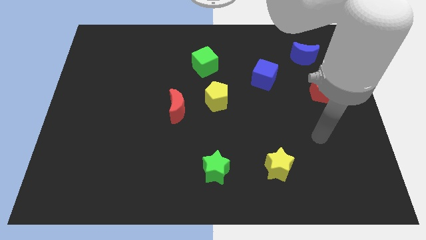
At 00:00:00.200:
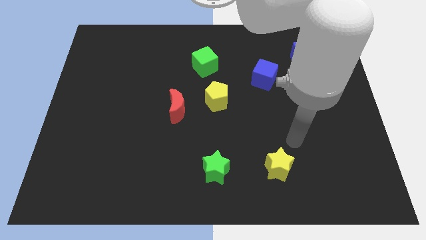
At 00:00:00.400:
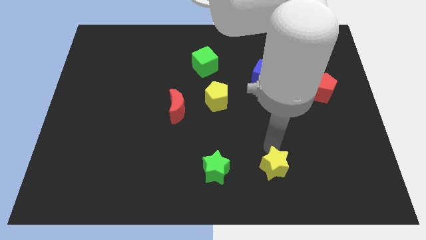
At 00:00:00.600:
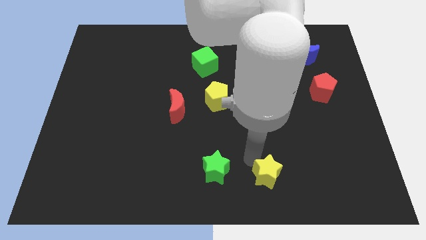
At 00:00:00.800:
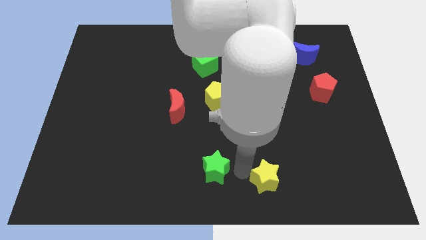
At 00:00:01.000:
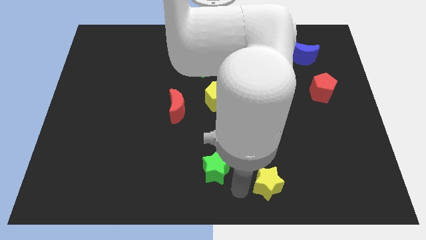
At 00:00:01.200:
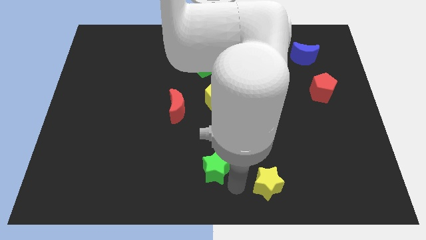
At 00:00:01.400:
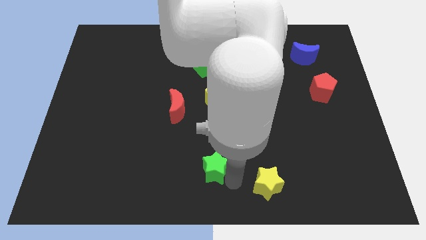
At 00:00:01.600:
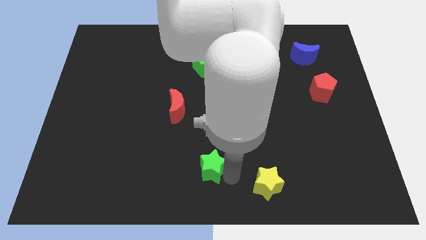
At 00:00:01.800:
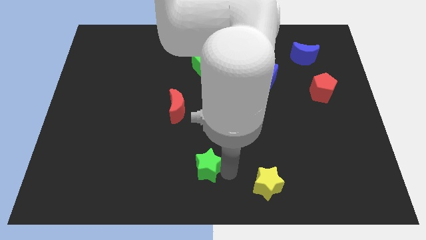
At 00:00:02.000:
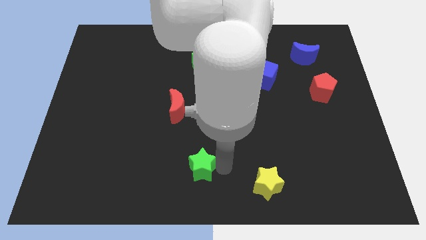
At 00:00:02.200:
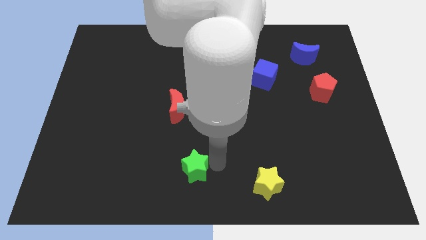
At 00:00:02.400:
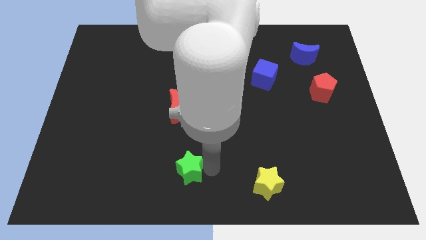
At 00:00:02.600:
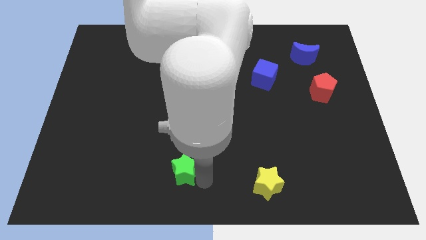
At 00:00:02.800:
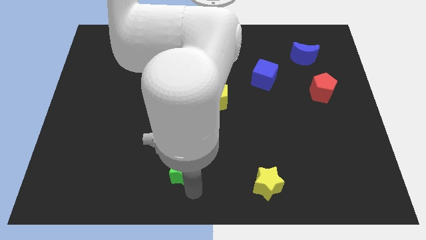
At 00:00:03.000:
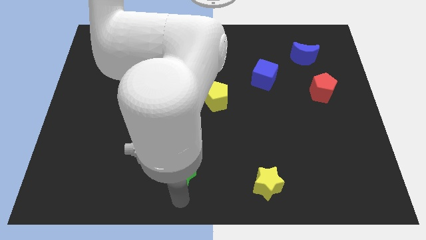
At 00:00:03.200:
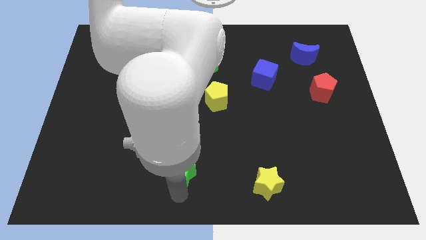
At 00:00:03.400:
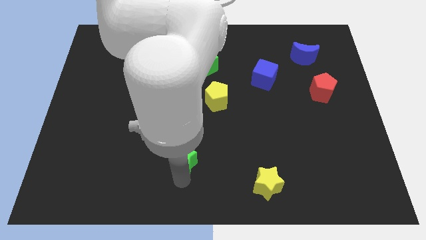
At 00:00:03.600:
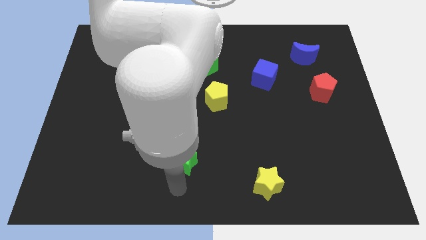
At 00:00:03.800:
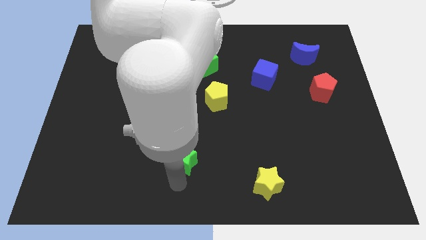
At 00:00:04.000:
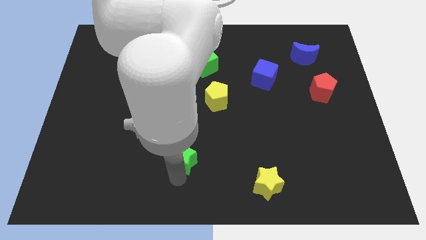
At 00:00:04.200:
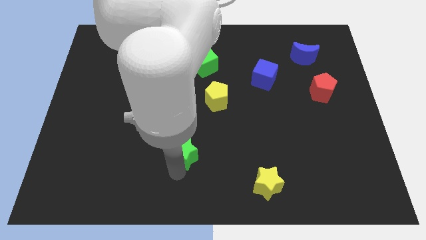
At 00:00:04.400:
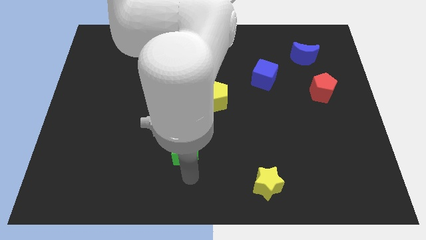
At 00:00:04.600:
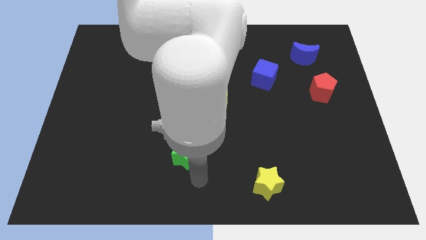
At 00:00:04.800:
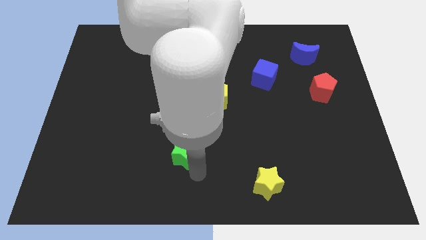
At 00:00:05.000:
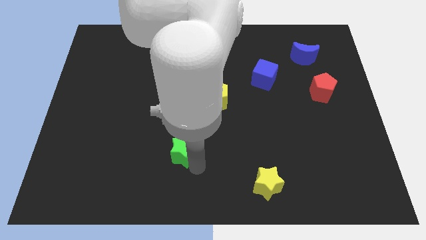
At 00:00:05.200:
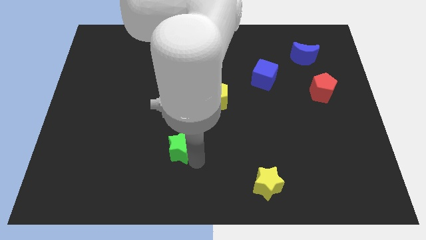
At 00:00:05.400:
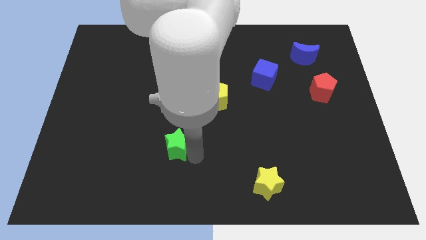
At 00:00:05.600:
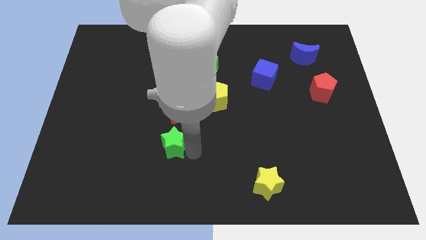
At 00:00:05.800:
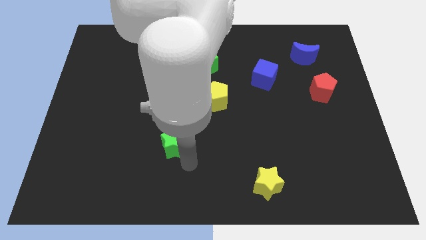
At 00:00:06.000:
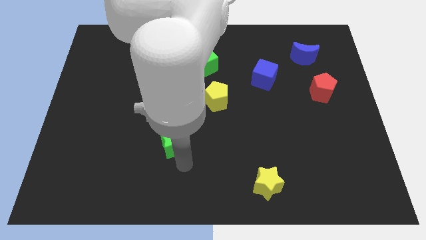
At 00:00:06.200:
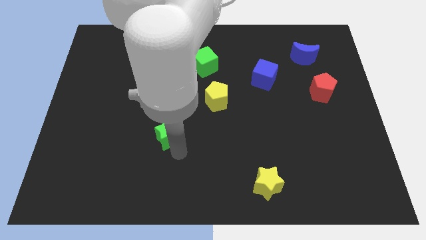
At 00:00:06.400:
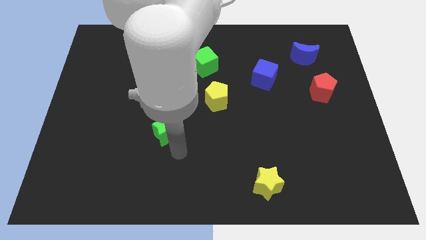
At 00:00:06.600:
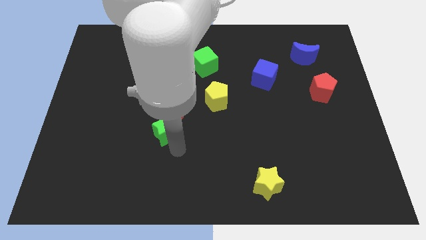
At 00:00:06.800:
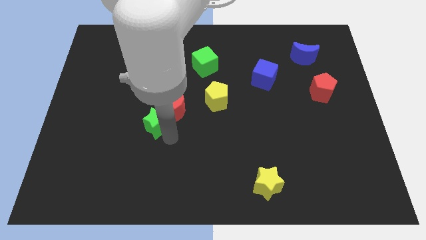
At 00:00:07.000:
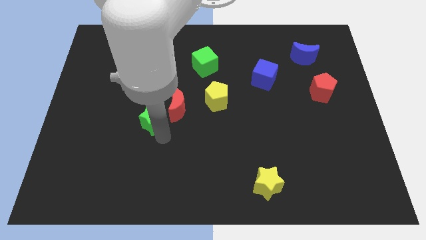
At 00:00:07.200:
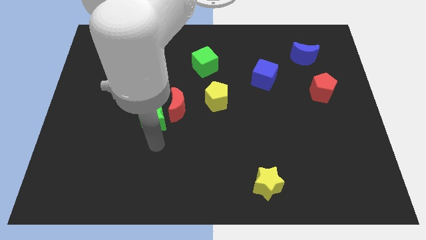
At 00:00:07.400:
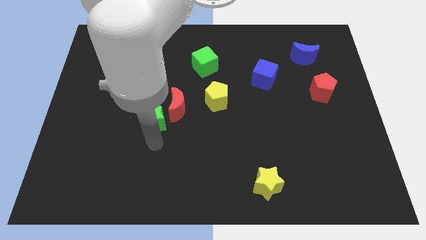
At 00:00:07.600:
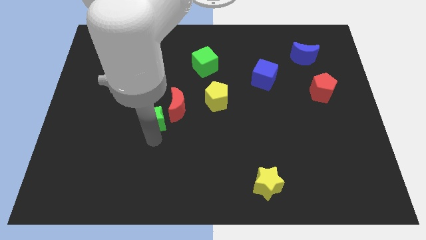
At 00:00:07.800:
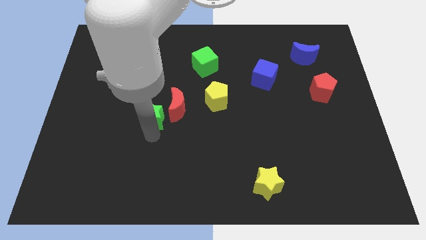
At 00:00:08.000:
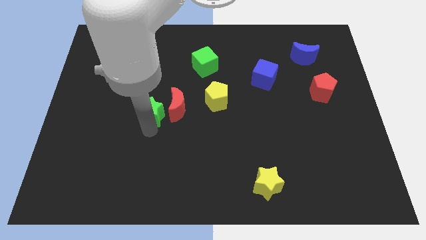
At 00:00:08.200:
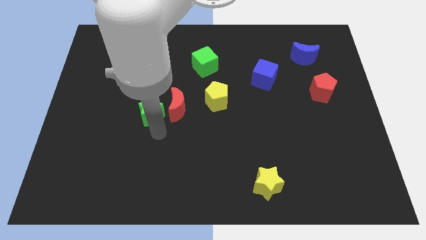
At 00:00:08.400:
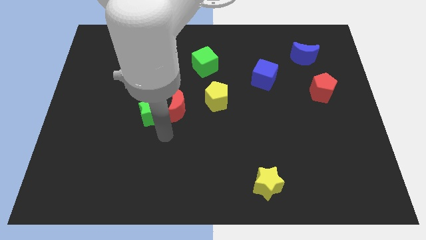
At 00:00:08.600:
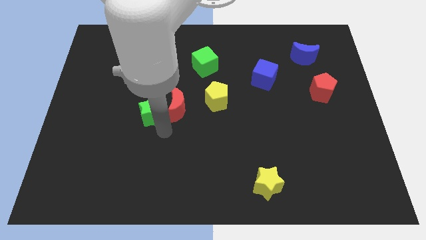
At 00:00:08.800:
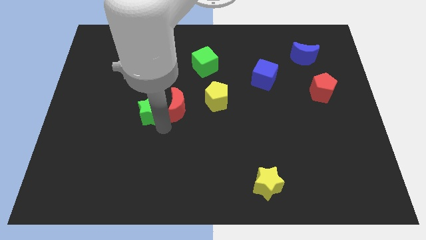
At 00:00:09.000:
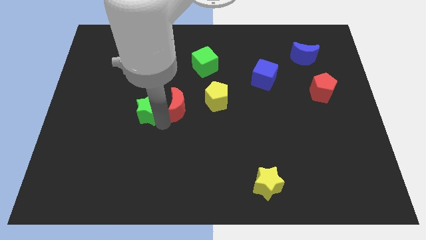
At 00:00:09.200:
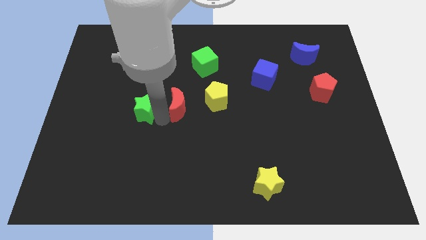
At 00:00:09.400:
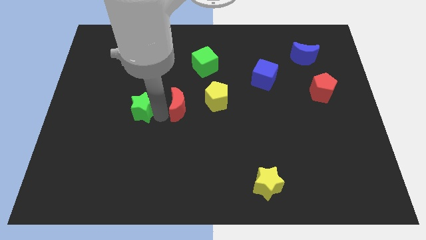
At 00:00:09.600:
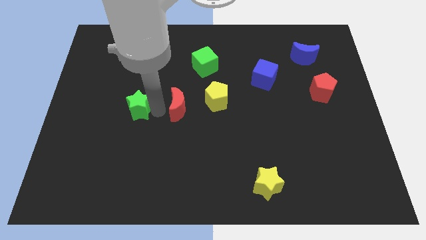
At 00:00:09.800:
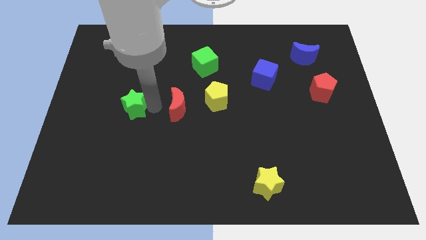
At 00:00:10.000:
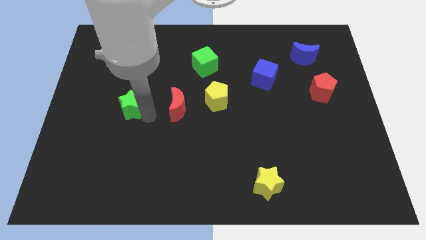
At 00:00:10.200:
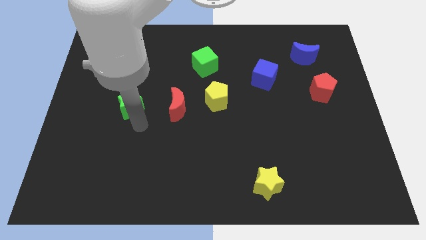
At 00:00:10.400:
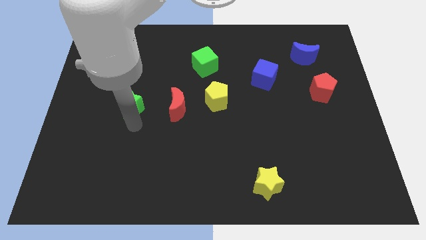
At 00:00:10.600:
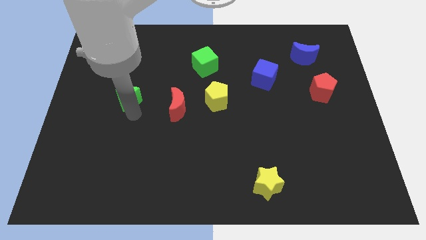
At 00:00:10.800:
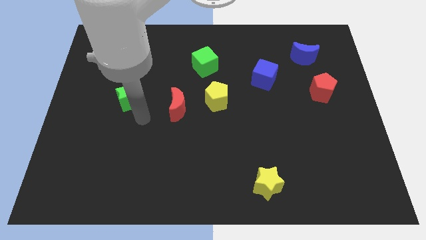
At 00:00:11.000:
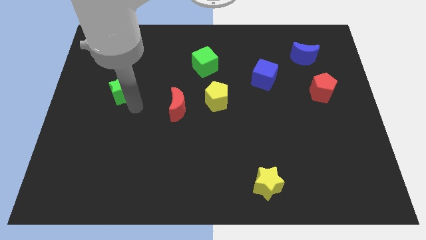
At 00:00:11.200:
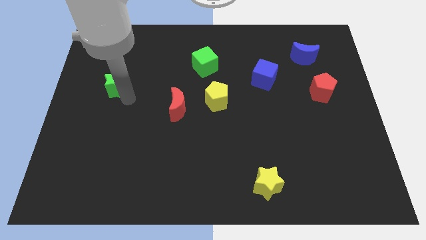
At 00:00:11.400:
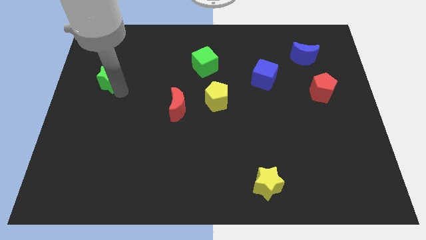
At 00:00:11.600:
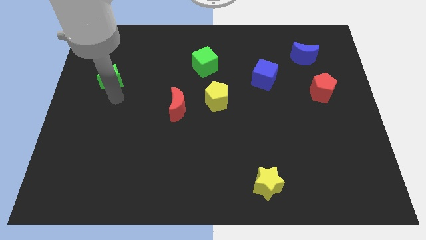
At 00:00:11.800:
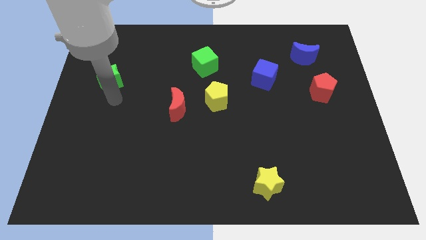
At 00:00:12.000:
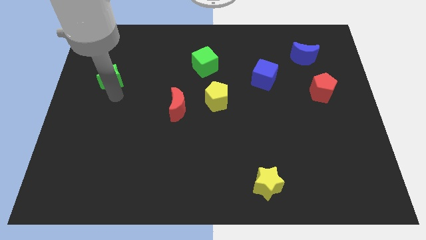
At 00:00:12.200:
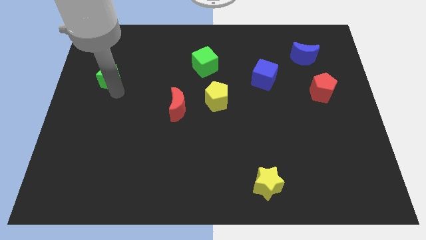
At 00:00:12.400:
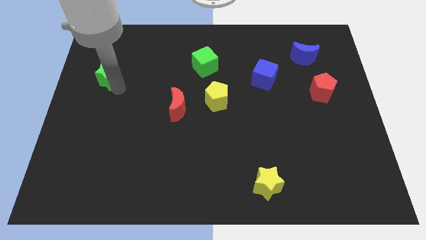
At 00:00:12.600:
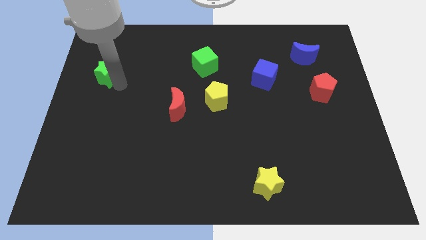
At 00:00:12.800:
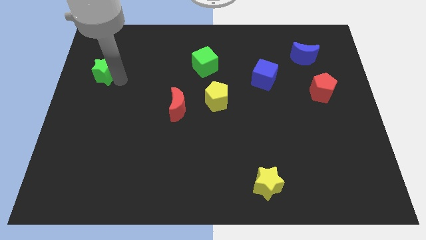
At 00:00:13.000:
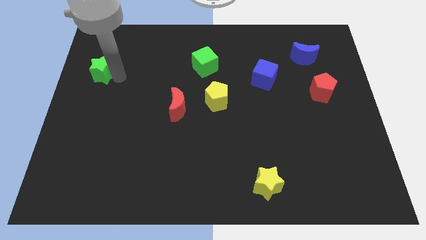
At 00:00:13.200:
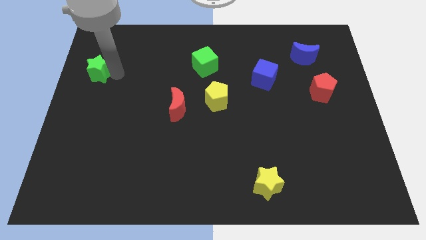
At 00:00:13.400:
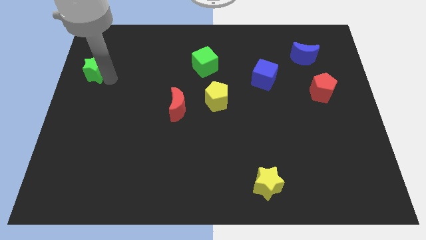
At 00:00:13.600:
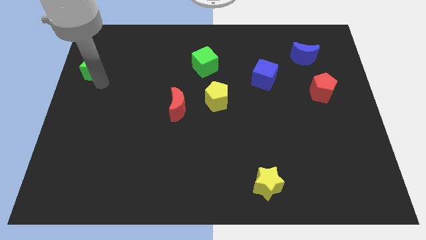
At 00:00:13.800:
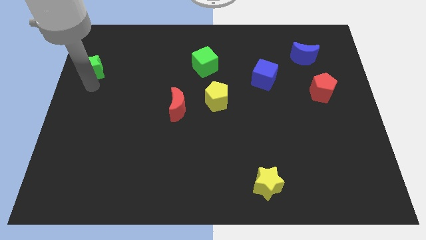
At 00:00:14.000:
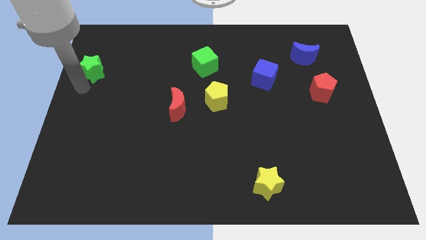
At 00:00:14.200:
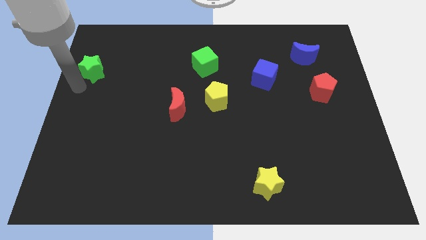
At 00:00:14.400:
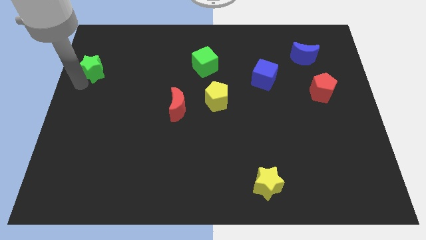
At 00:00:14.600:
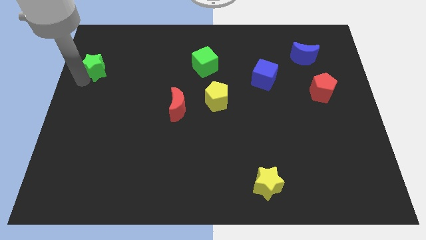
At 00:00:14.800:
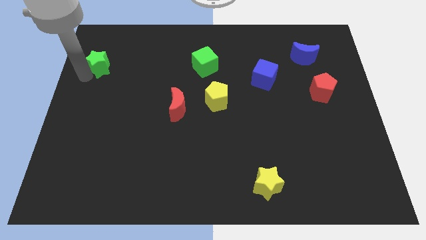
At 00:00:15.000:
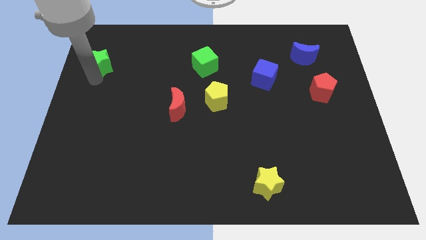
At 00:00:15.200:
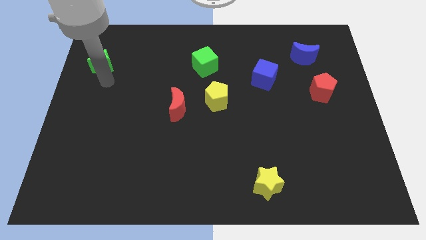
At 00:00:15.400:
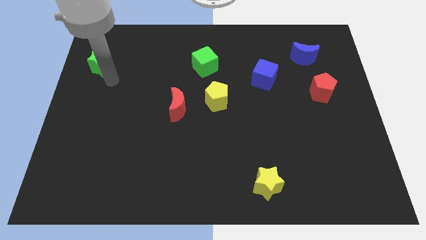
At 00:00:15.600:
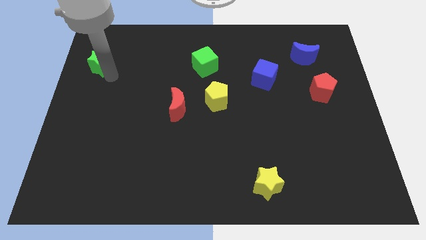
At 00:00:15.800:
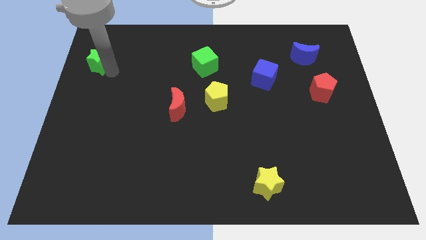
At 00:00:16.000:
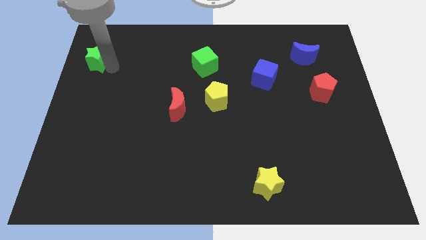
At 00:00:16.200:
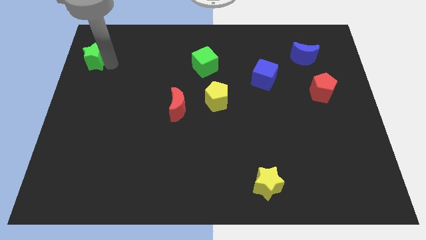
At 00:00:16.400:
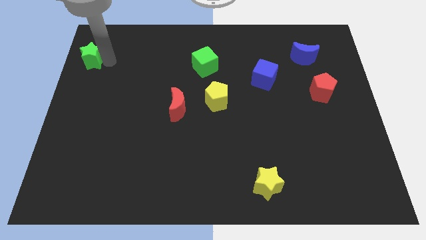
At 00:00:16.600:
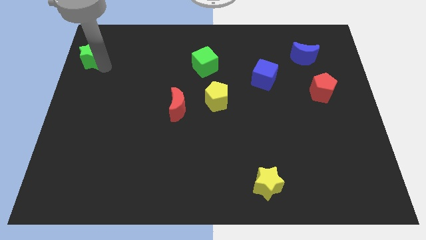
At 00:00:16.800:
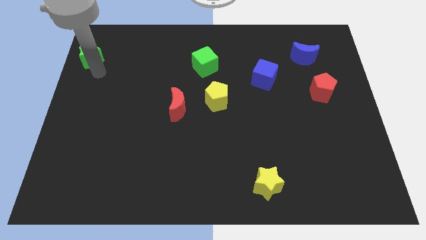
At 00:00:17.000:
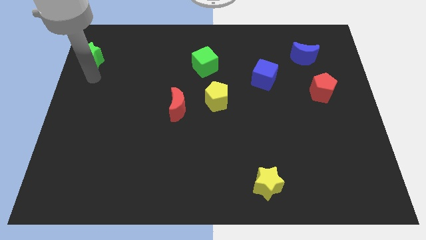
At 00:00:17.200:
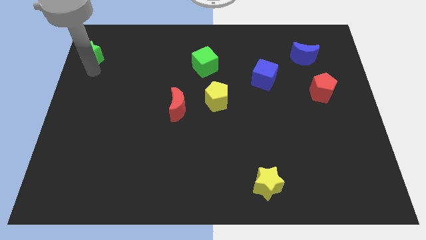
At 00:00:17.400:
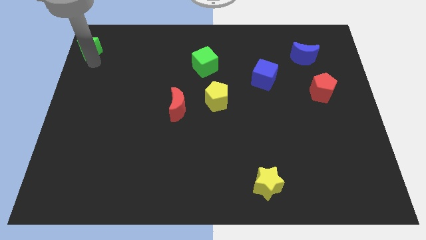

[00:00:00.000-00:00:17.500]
put the green star to the top left of the board
